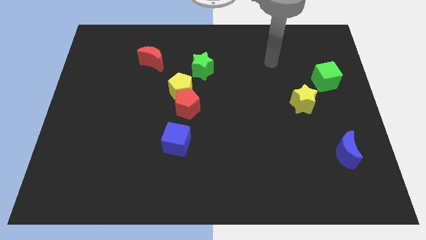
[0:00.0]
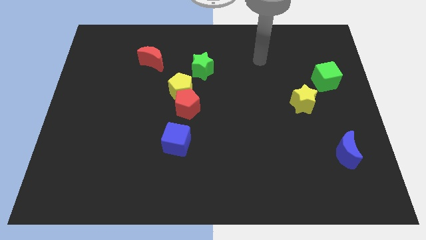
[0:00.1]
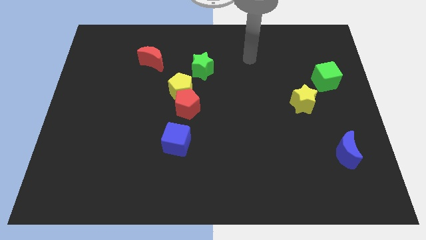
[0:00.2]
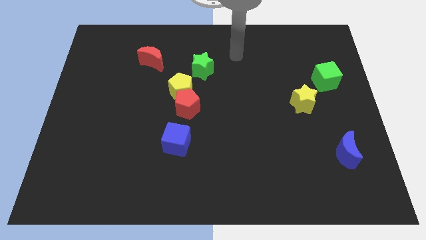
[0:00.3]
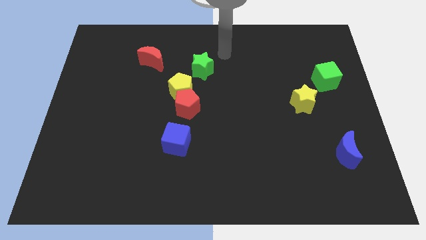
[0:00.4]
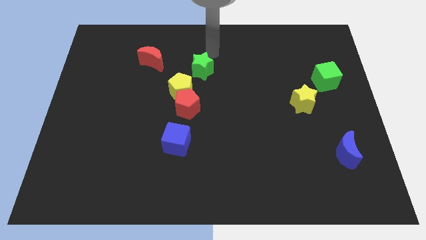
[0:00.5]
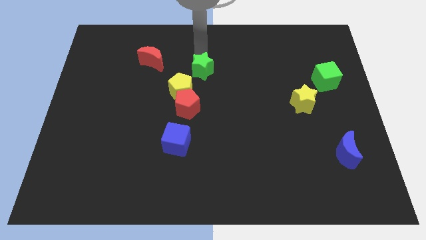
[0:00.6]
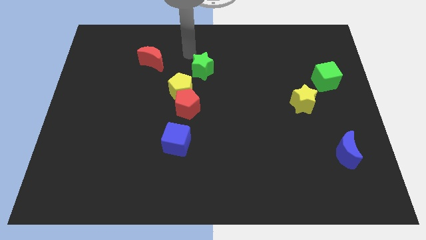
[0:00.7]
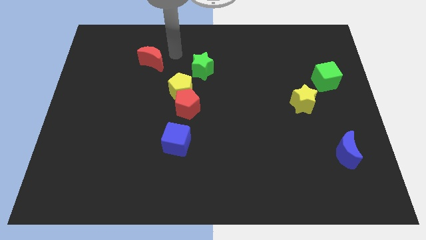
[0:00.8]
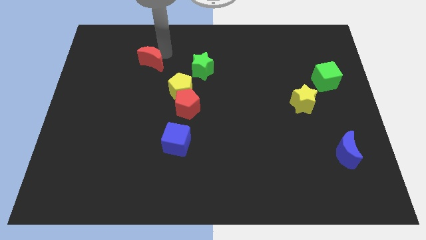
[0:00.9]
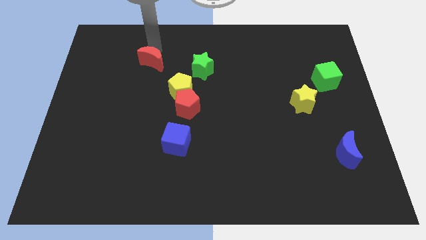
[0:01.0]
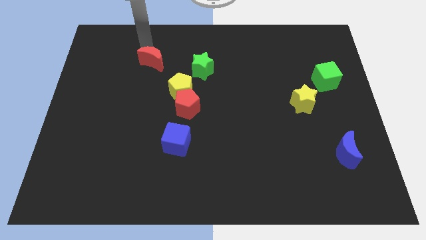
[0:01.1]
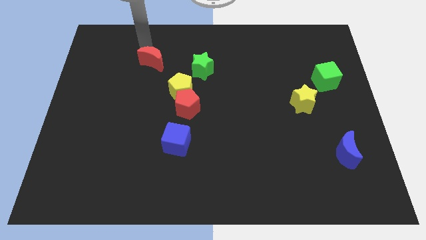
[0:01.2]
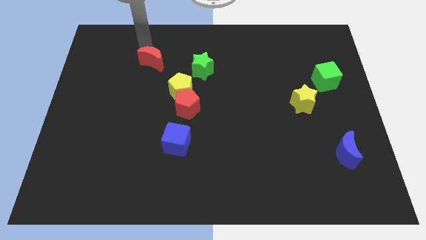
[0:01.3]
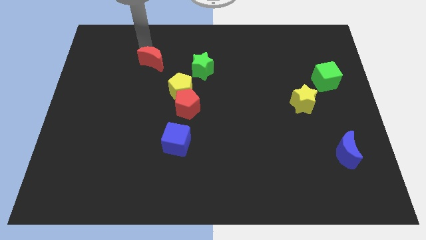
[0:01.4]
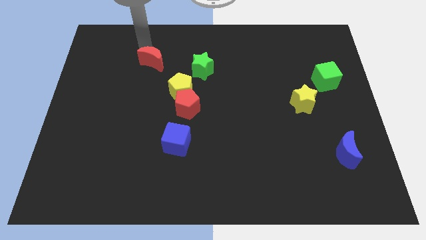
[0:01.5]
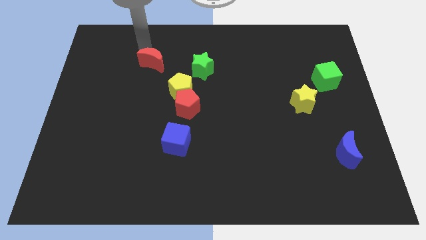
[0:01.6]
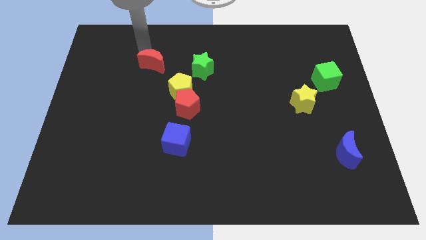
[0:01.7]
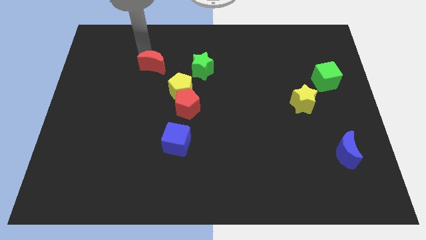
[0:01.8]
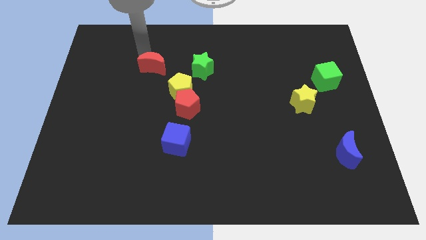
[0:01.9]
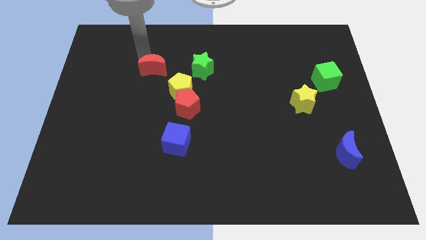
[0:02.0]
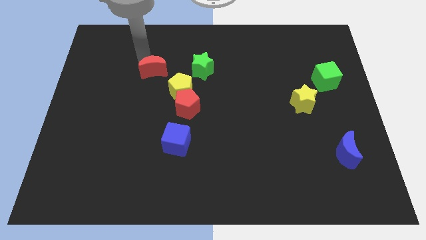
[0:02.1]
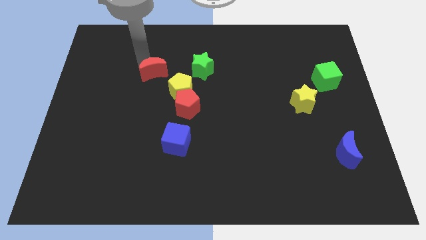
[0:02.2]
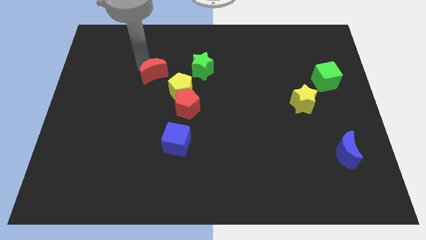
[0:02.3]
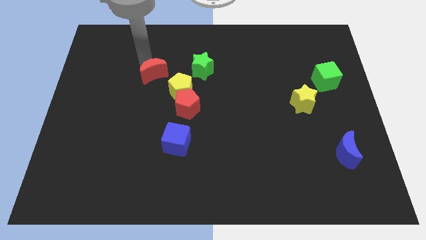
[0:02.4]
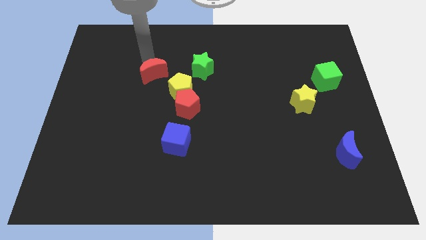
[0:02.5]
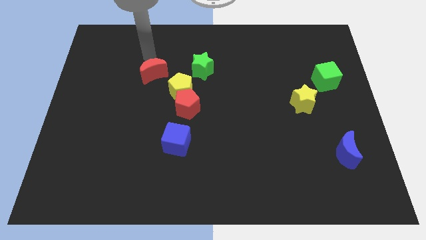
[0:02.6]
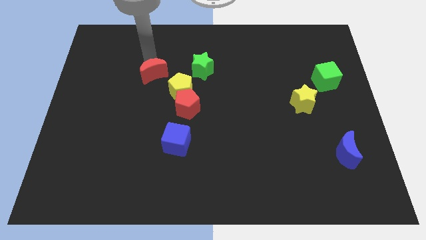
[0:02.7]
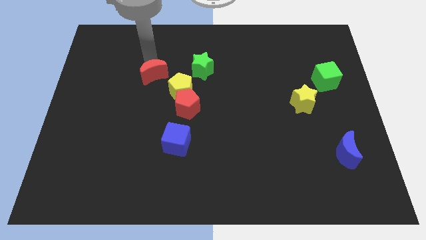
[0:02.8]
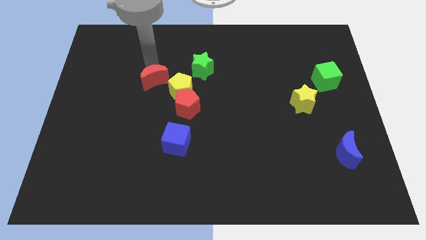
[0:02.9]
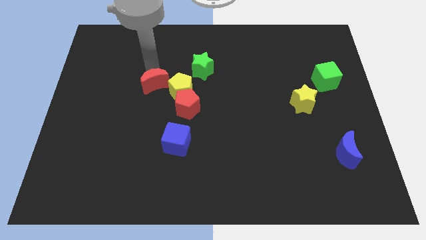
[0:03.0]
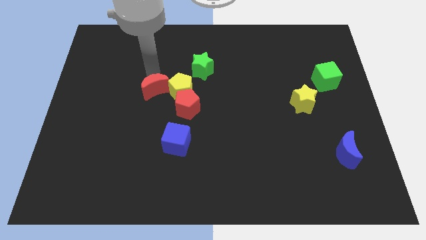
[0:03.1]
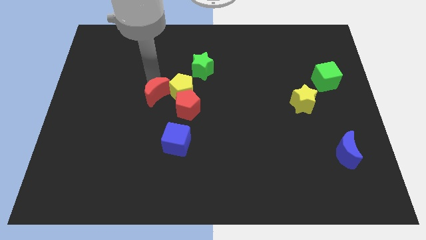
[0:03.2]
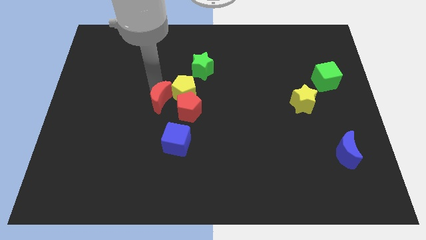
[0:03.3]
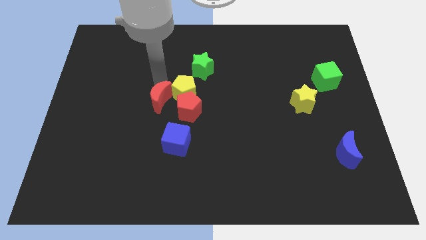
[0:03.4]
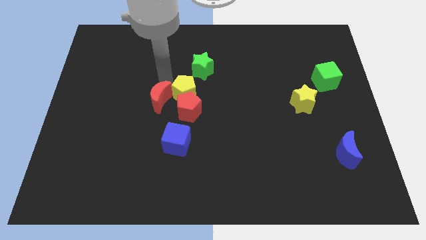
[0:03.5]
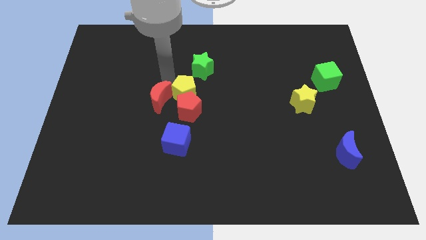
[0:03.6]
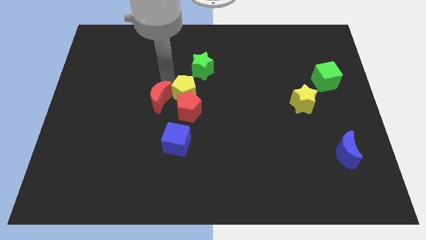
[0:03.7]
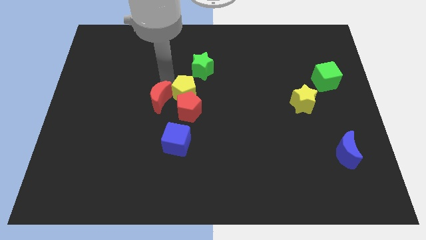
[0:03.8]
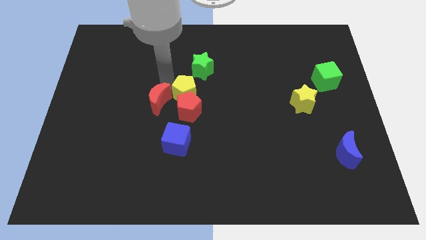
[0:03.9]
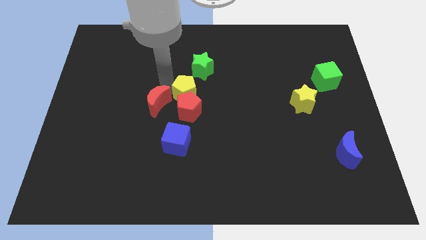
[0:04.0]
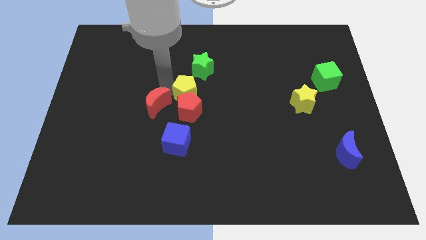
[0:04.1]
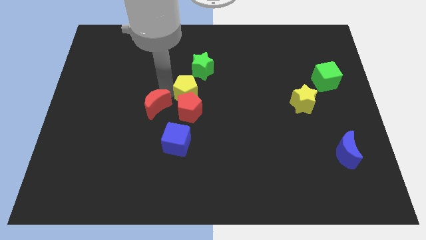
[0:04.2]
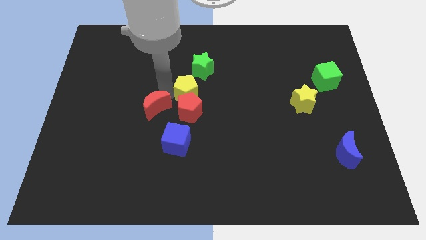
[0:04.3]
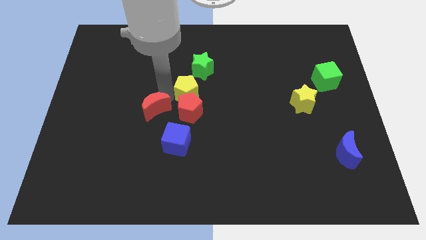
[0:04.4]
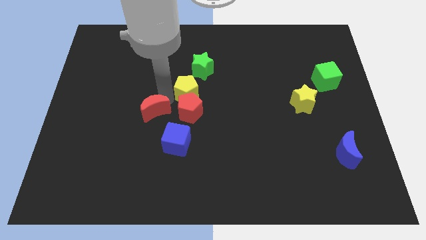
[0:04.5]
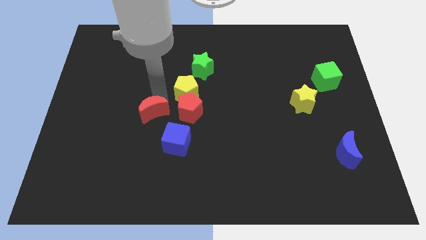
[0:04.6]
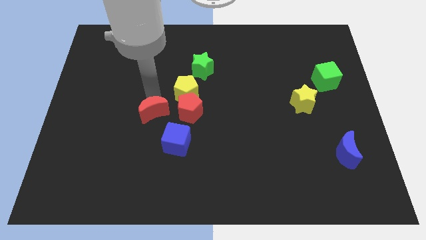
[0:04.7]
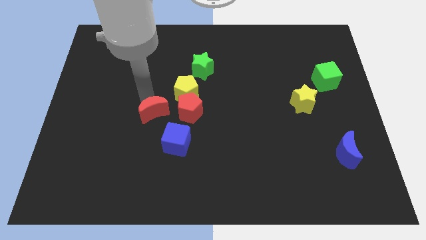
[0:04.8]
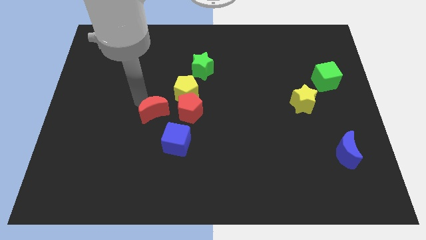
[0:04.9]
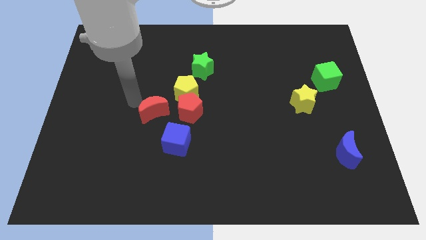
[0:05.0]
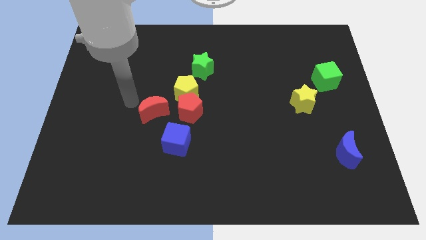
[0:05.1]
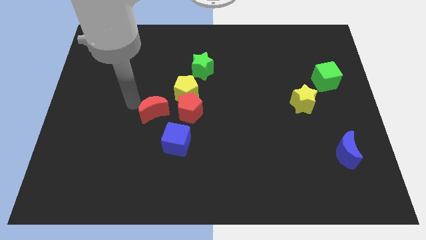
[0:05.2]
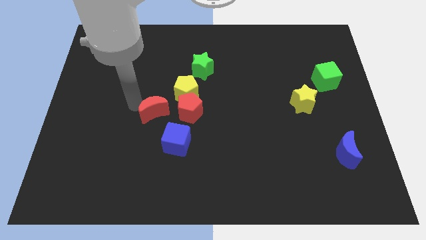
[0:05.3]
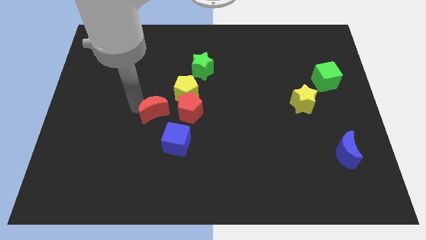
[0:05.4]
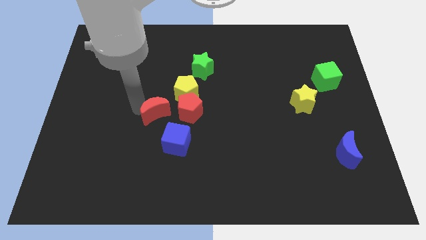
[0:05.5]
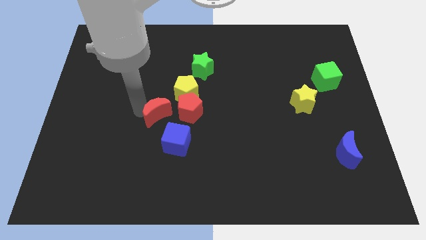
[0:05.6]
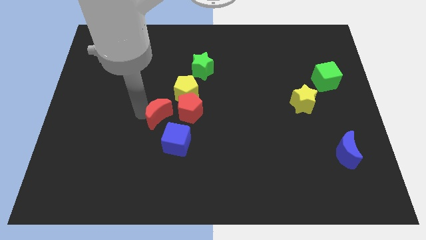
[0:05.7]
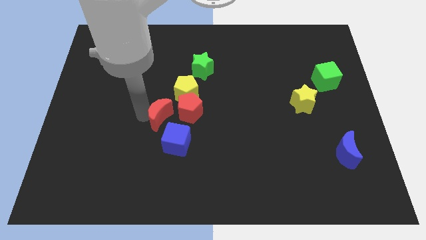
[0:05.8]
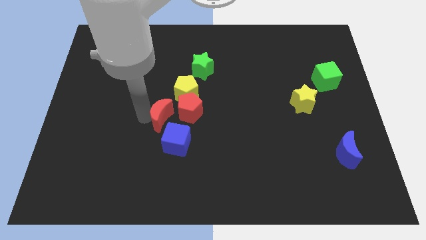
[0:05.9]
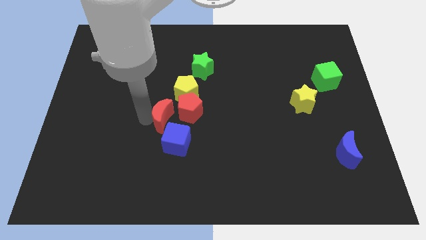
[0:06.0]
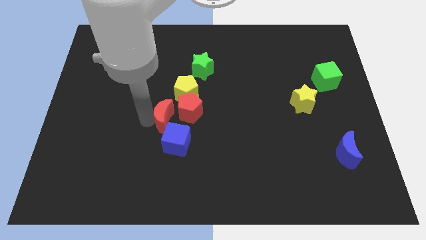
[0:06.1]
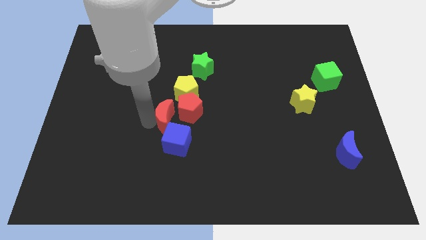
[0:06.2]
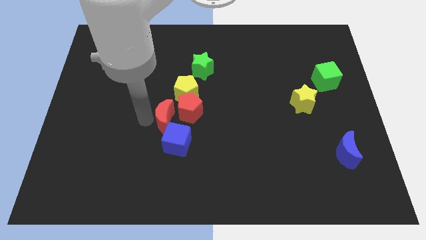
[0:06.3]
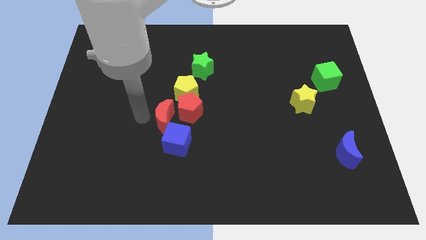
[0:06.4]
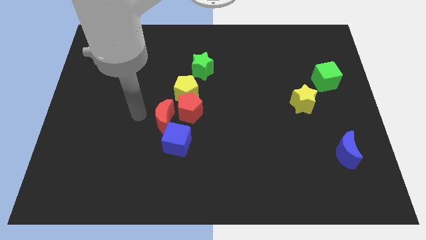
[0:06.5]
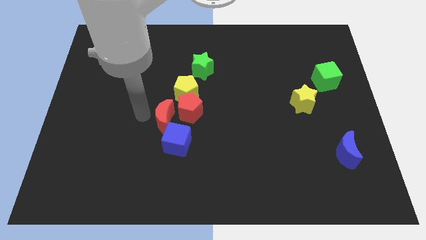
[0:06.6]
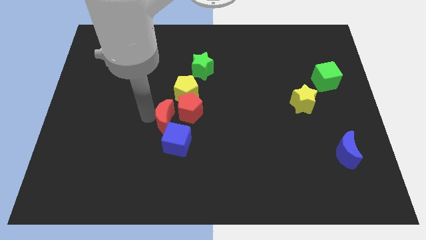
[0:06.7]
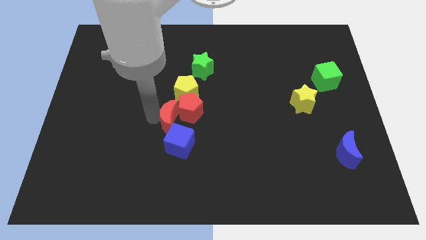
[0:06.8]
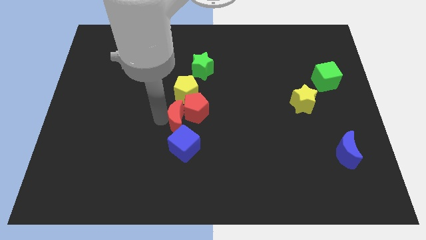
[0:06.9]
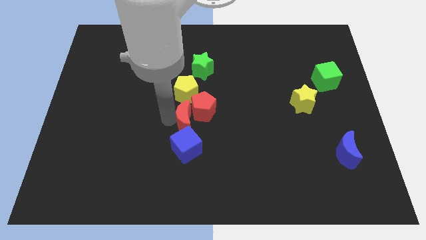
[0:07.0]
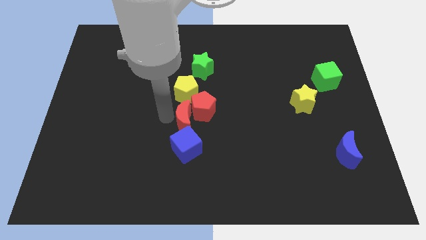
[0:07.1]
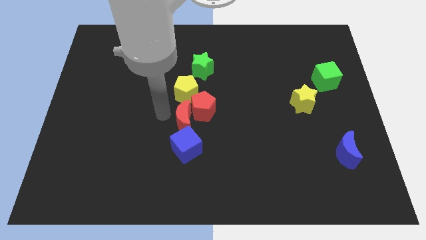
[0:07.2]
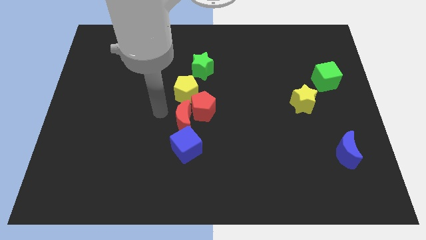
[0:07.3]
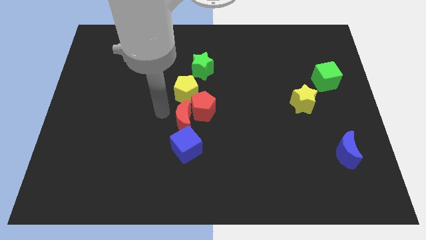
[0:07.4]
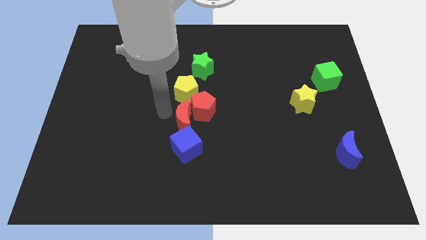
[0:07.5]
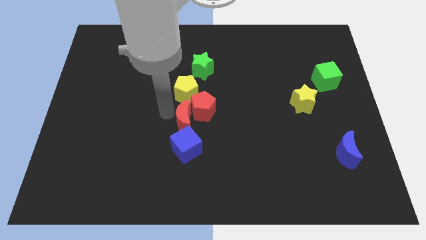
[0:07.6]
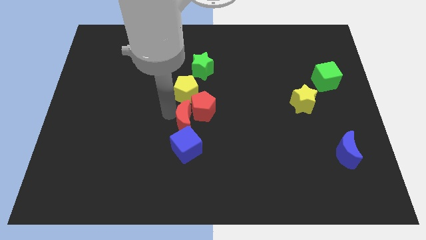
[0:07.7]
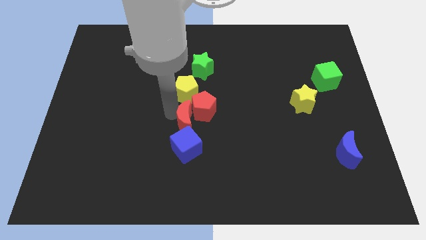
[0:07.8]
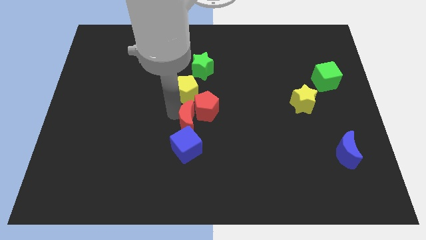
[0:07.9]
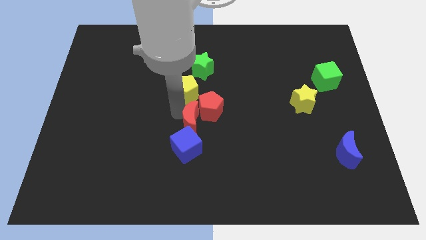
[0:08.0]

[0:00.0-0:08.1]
slide the red moon down and then right

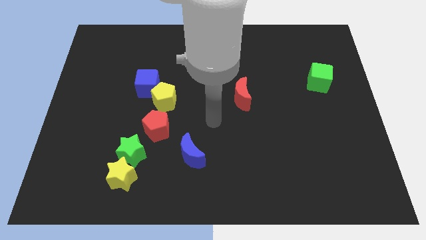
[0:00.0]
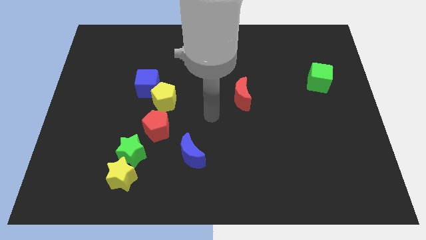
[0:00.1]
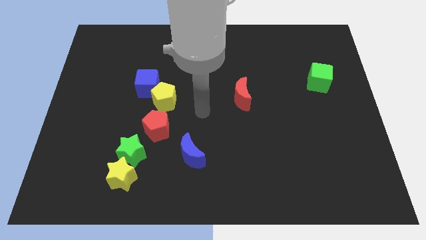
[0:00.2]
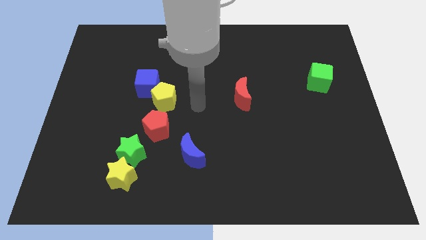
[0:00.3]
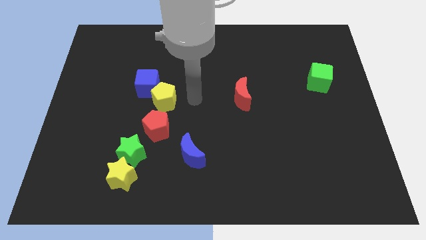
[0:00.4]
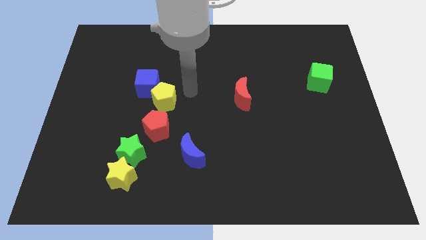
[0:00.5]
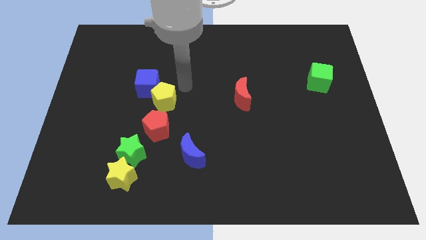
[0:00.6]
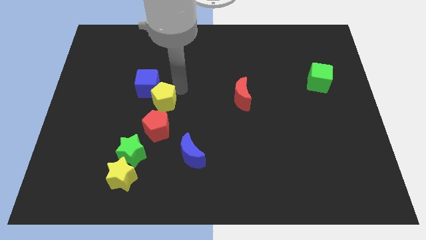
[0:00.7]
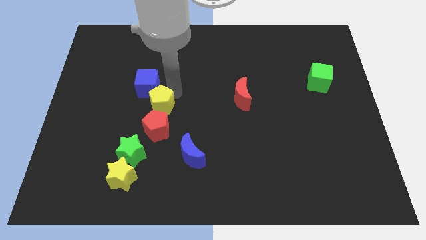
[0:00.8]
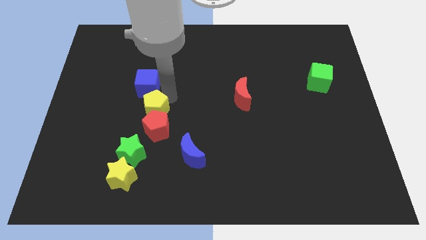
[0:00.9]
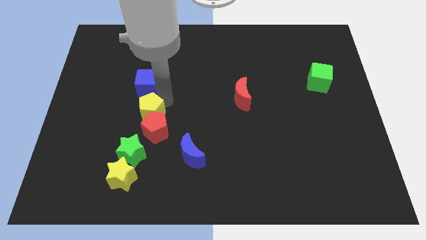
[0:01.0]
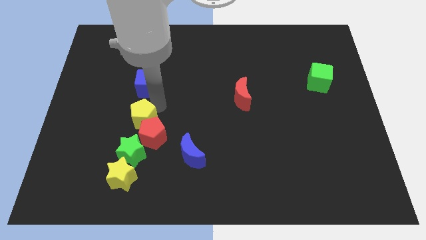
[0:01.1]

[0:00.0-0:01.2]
slightly move the yellow pentagon down and left
